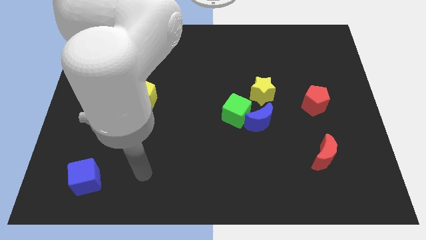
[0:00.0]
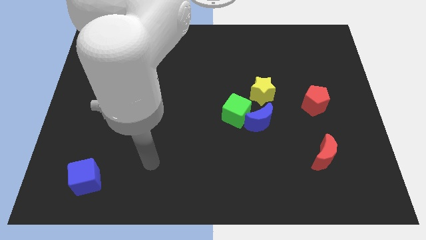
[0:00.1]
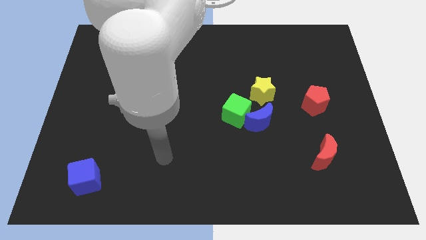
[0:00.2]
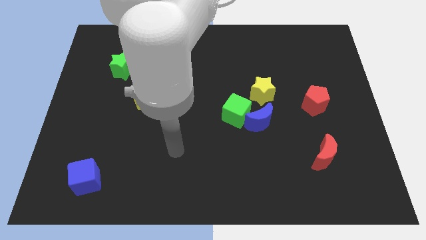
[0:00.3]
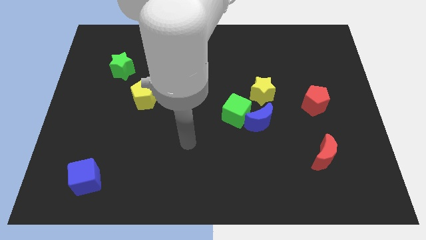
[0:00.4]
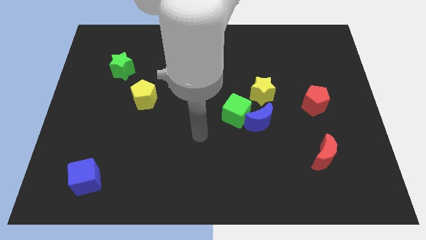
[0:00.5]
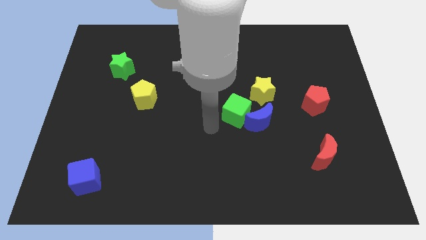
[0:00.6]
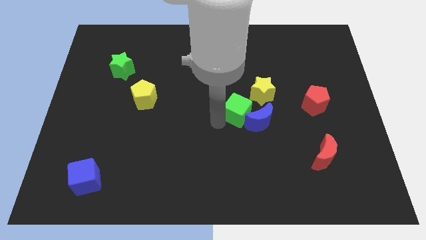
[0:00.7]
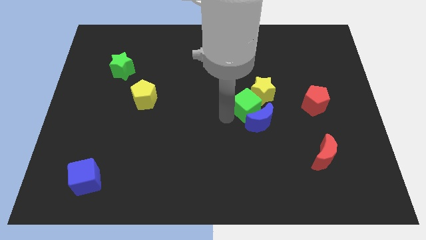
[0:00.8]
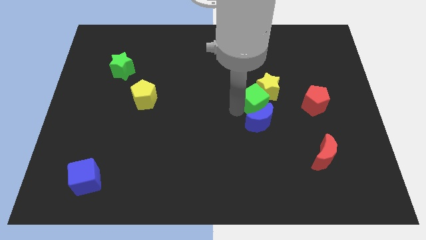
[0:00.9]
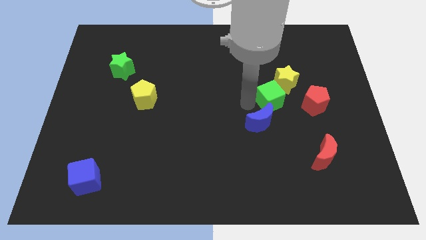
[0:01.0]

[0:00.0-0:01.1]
pull the blue moon apart from the green cube and yellow star

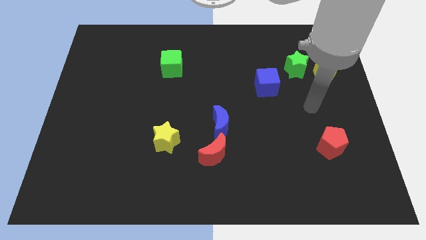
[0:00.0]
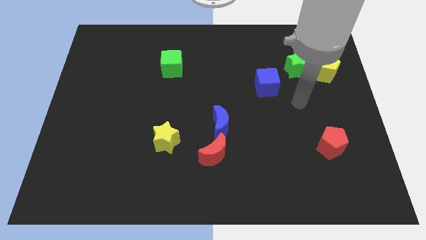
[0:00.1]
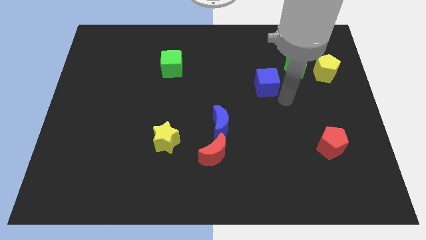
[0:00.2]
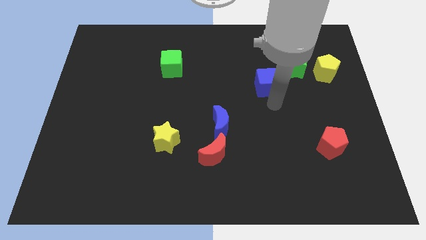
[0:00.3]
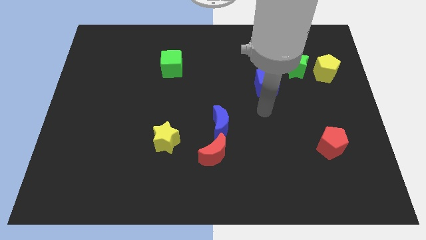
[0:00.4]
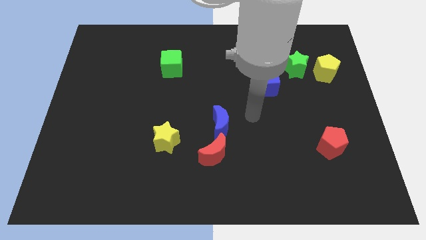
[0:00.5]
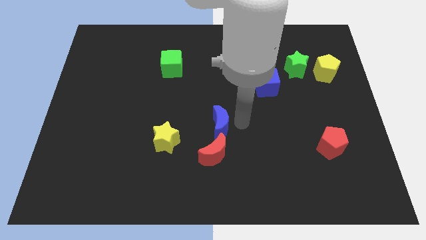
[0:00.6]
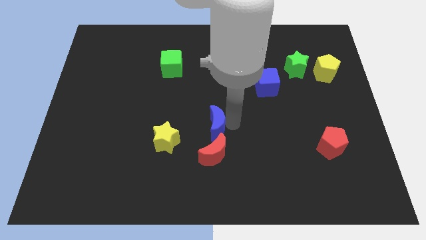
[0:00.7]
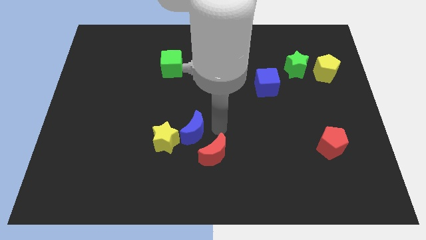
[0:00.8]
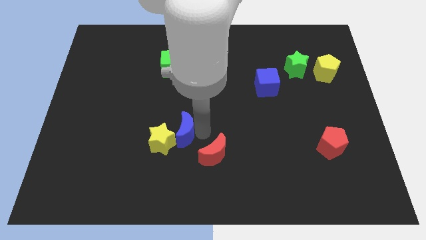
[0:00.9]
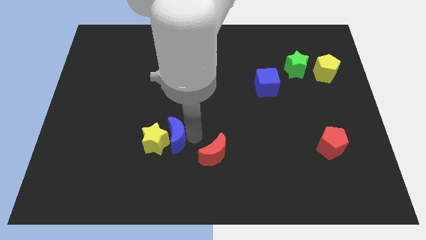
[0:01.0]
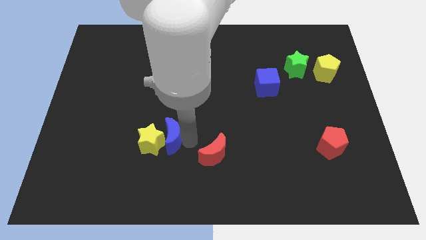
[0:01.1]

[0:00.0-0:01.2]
separate the red moon from the blue moon

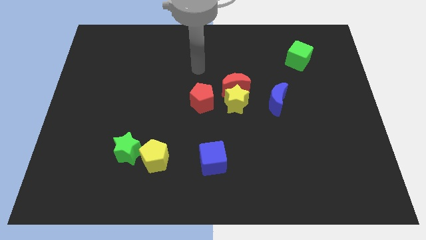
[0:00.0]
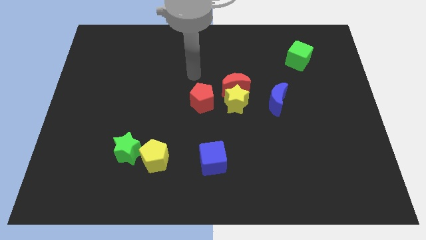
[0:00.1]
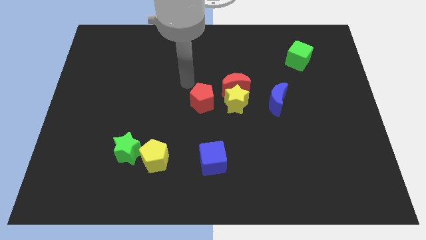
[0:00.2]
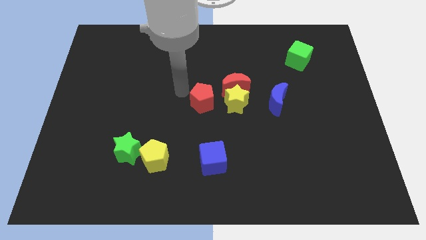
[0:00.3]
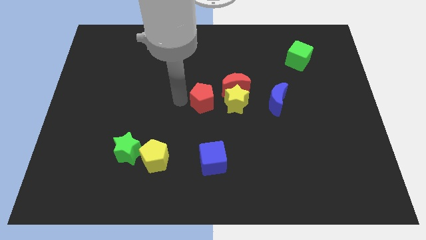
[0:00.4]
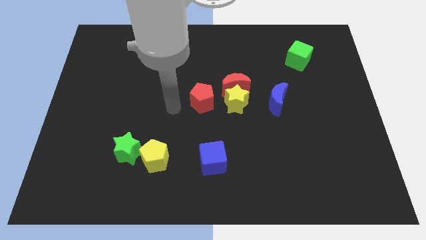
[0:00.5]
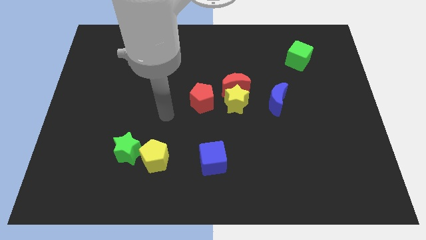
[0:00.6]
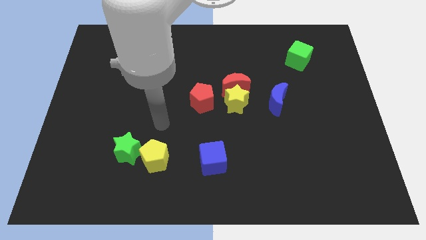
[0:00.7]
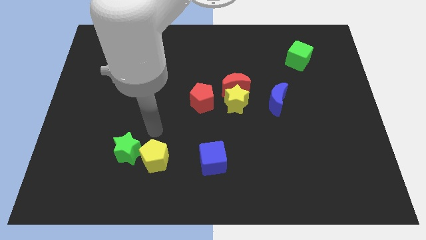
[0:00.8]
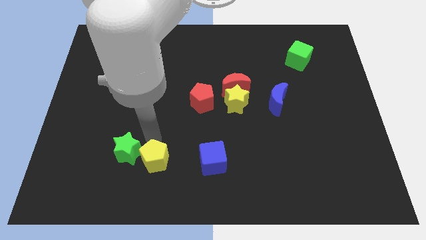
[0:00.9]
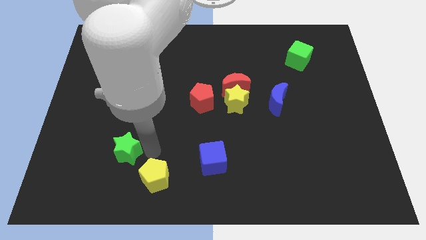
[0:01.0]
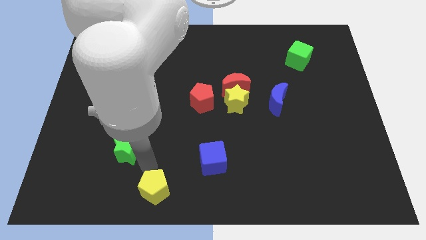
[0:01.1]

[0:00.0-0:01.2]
separate the green star from the yellow pentagon

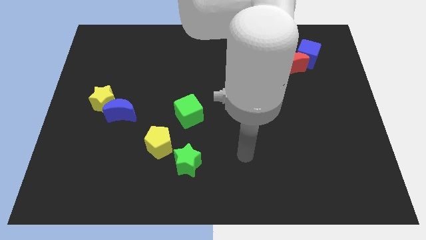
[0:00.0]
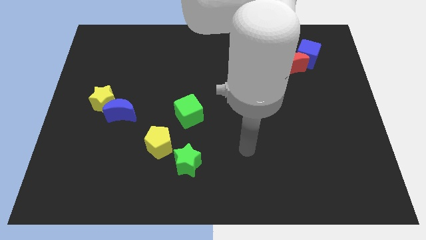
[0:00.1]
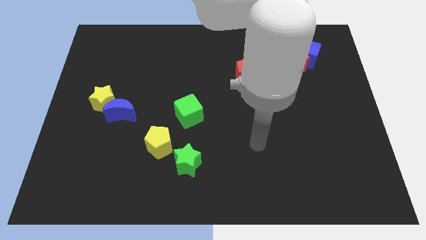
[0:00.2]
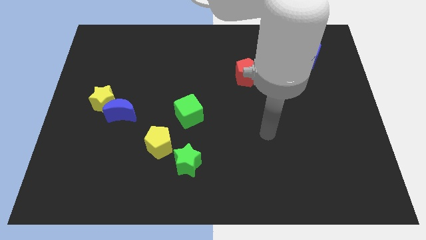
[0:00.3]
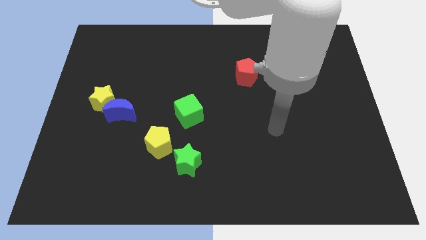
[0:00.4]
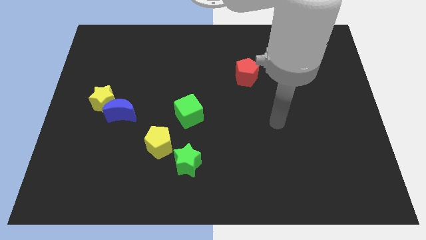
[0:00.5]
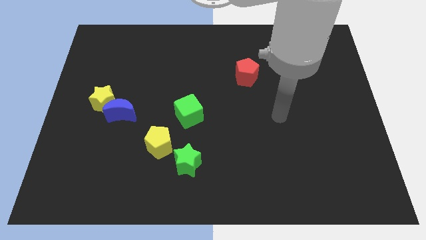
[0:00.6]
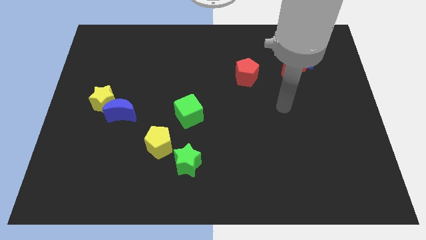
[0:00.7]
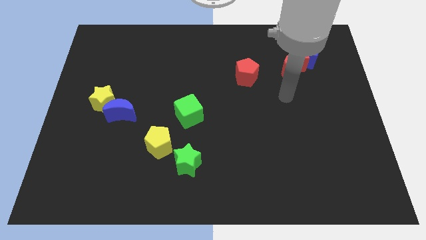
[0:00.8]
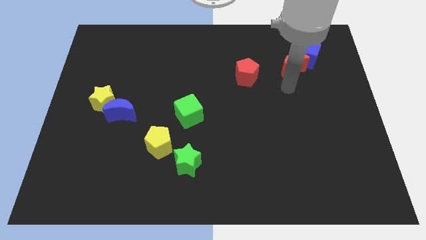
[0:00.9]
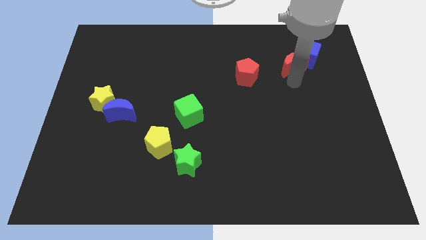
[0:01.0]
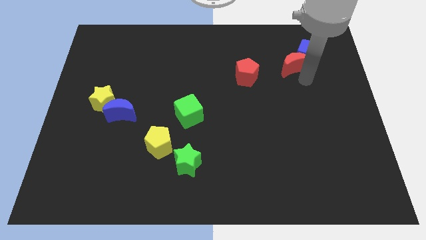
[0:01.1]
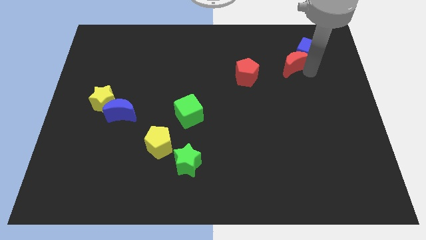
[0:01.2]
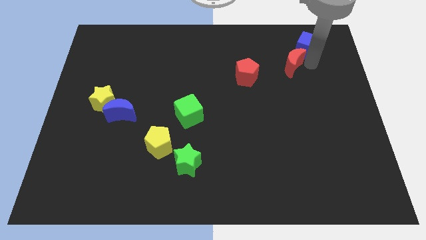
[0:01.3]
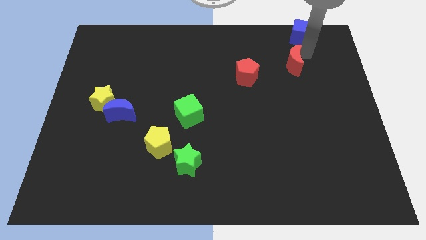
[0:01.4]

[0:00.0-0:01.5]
move the red moon away from the blue cube

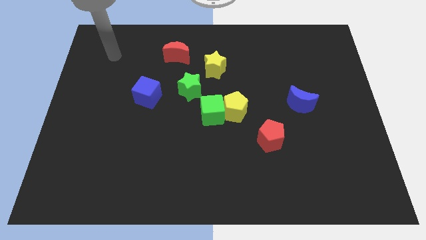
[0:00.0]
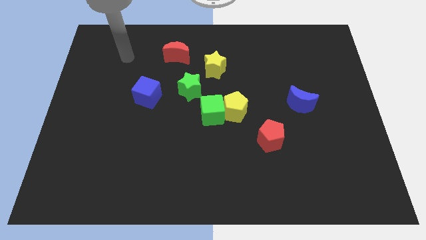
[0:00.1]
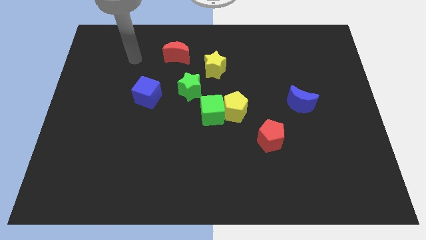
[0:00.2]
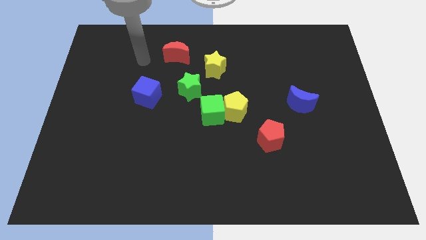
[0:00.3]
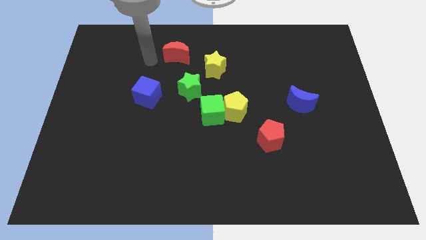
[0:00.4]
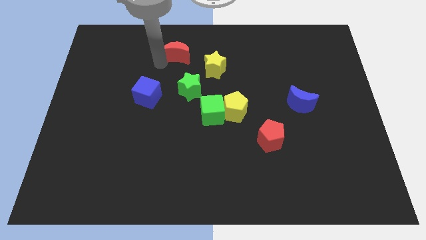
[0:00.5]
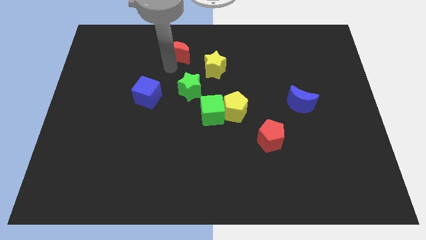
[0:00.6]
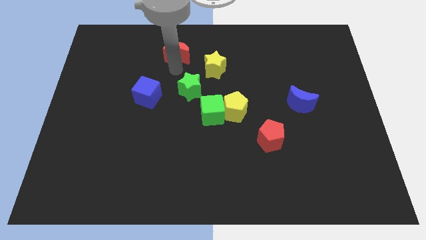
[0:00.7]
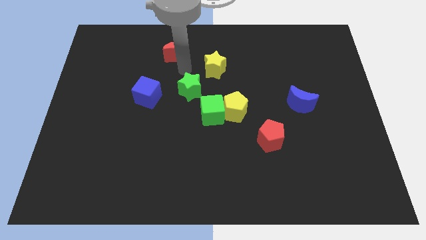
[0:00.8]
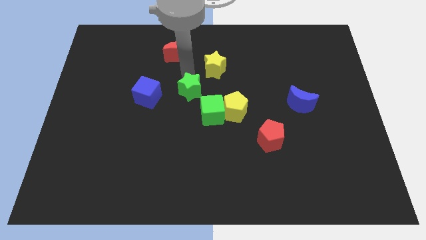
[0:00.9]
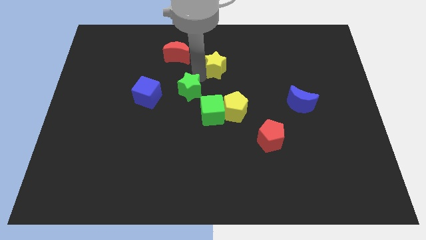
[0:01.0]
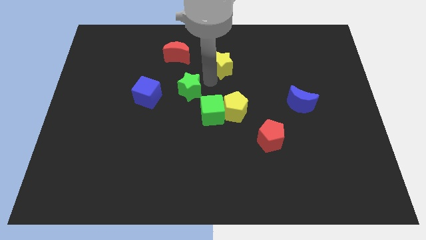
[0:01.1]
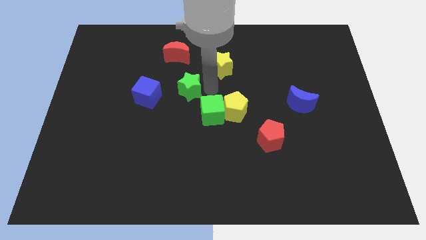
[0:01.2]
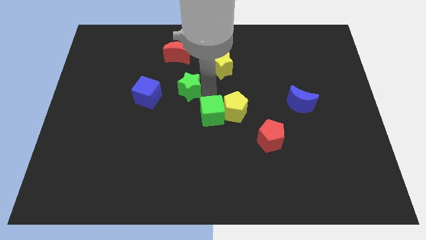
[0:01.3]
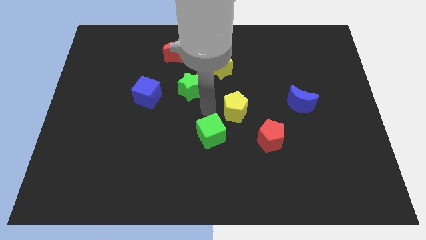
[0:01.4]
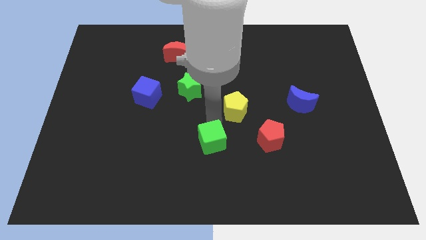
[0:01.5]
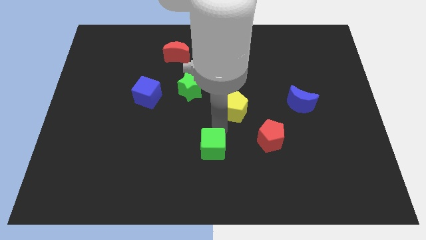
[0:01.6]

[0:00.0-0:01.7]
pull the yellow pentagon apart from the green cube

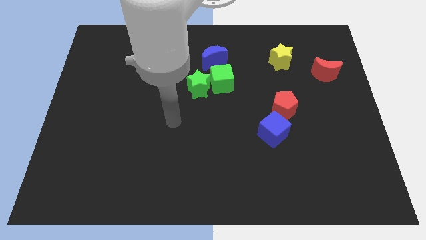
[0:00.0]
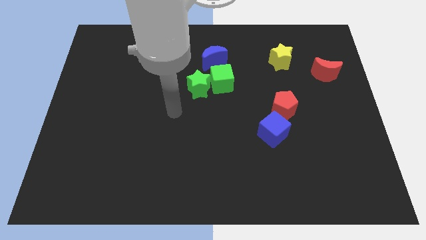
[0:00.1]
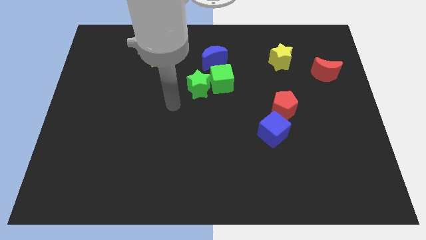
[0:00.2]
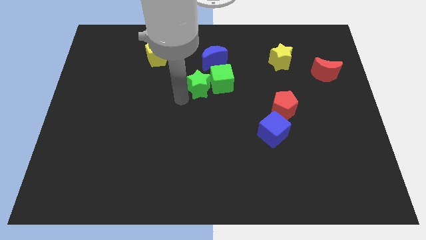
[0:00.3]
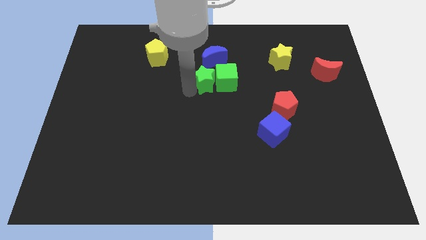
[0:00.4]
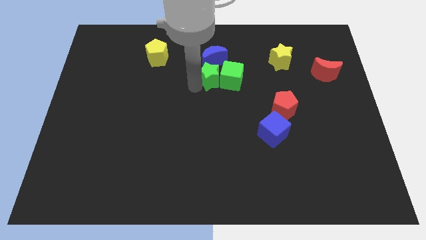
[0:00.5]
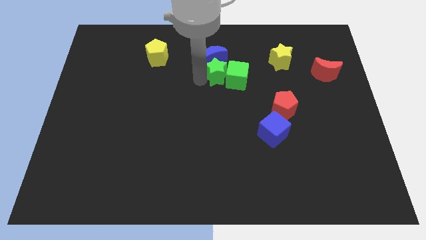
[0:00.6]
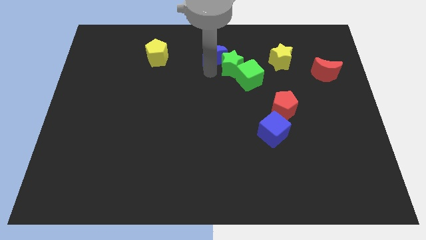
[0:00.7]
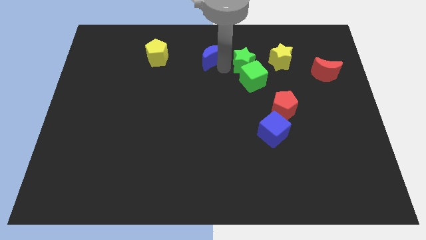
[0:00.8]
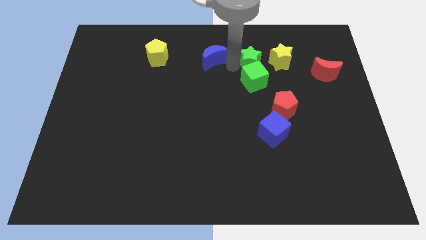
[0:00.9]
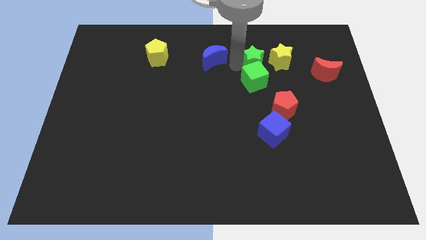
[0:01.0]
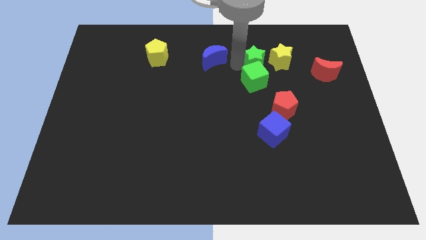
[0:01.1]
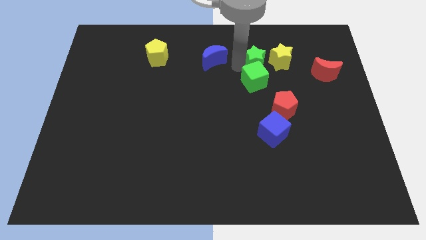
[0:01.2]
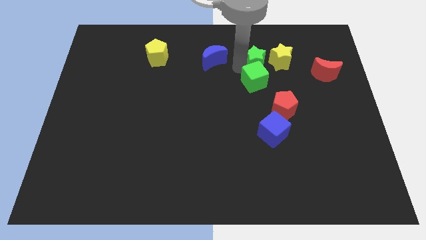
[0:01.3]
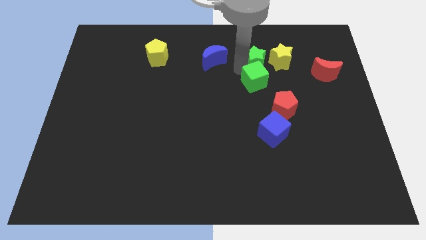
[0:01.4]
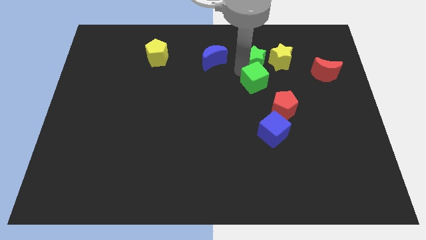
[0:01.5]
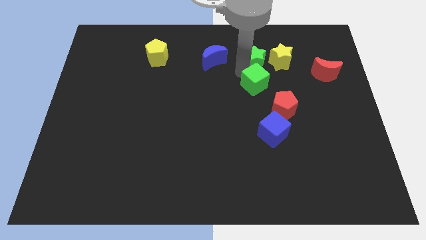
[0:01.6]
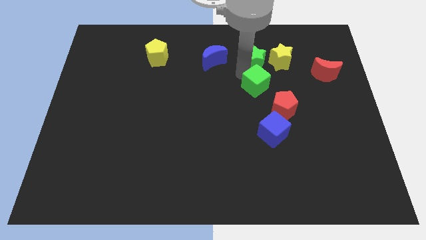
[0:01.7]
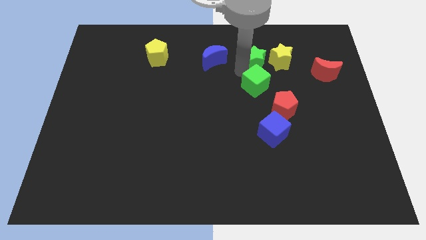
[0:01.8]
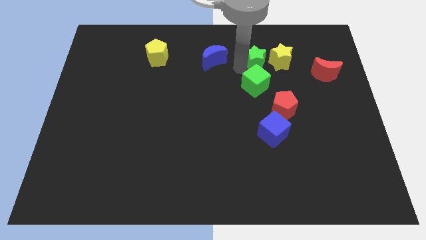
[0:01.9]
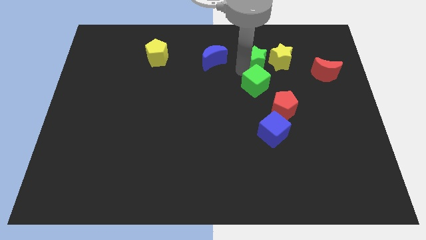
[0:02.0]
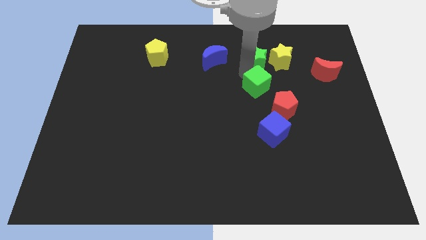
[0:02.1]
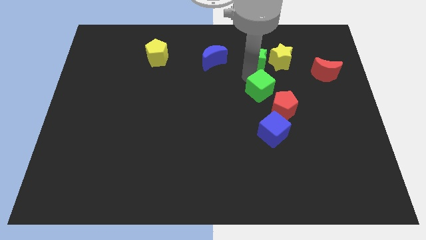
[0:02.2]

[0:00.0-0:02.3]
separate the green cube from the green star and blue moon
